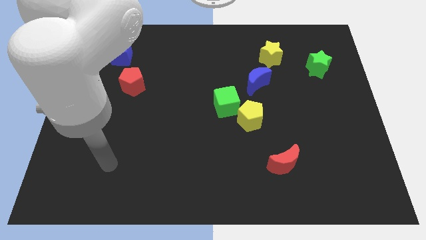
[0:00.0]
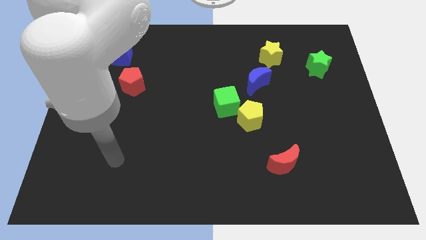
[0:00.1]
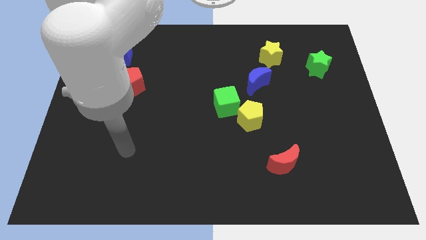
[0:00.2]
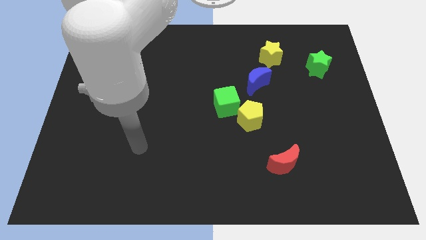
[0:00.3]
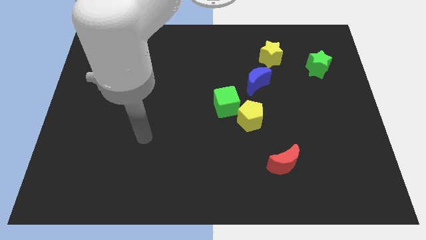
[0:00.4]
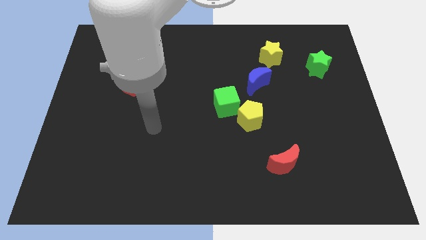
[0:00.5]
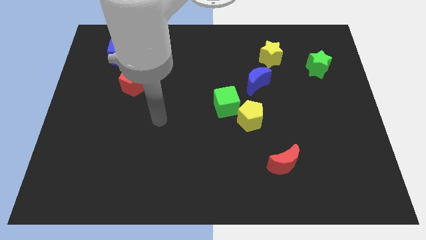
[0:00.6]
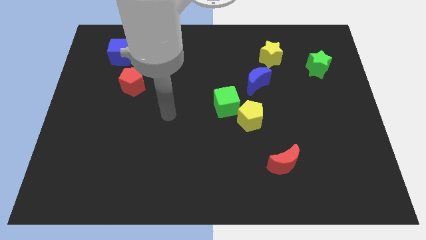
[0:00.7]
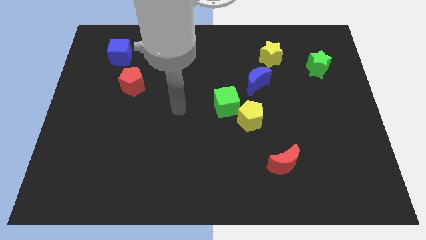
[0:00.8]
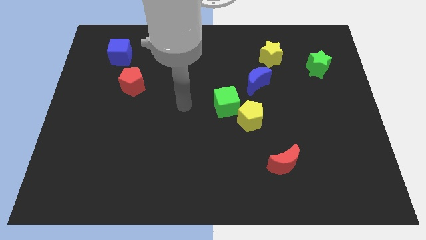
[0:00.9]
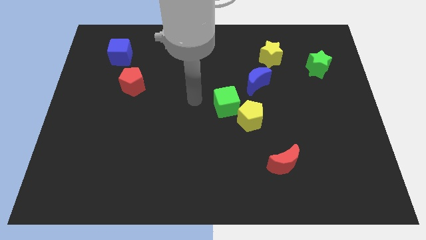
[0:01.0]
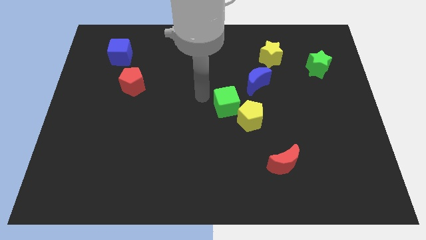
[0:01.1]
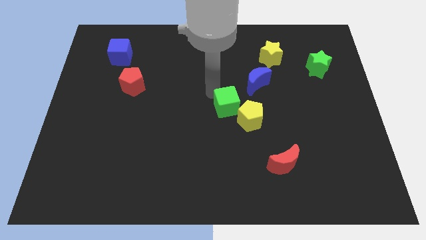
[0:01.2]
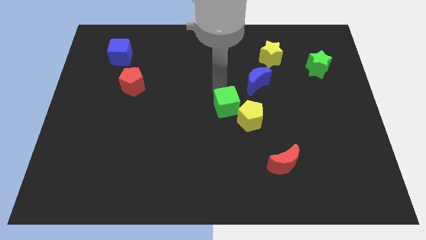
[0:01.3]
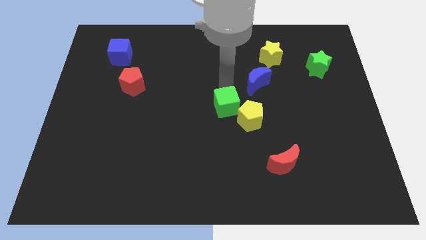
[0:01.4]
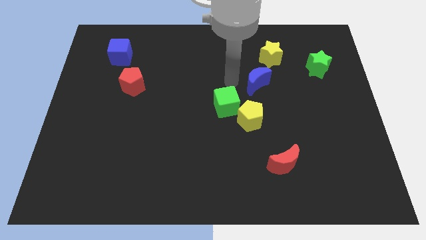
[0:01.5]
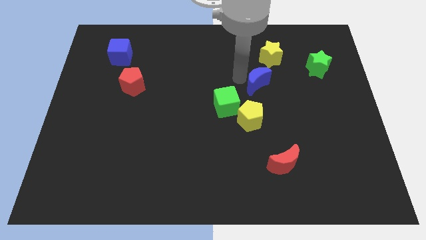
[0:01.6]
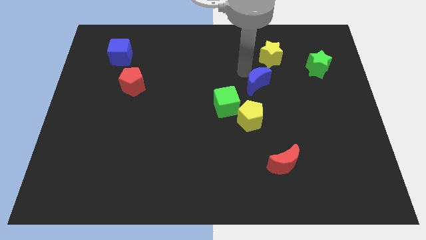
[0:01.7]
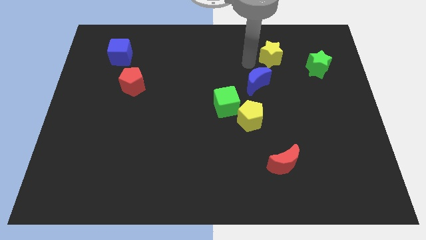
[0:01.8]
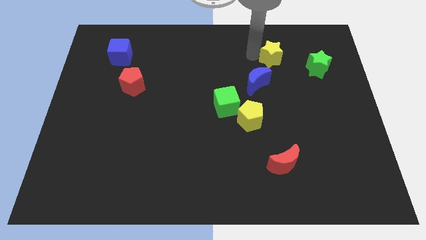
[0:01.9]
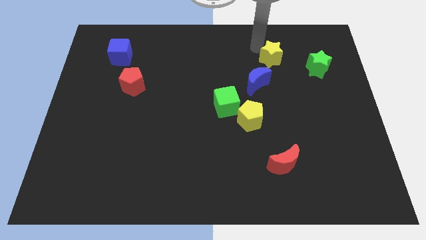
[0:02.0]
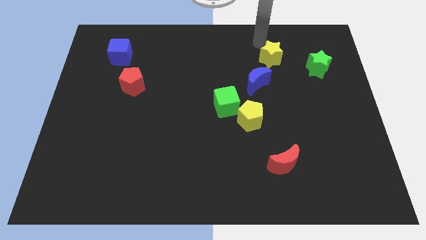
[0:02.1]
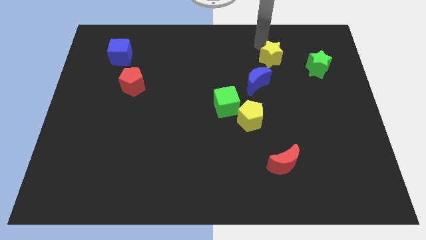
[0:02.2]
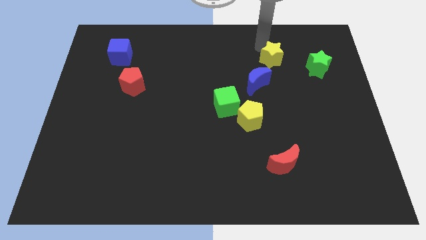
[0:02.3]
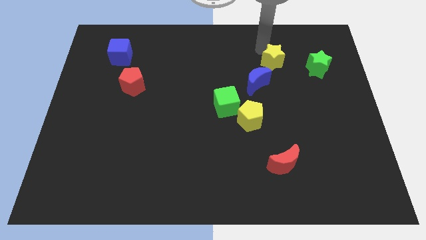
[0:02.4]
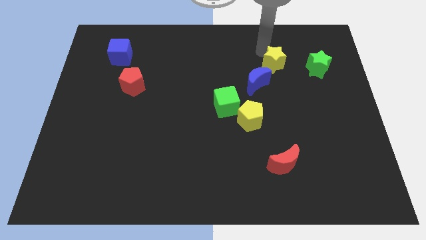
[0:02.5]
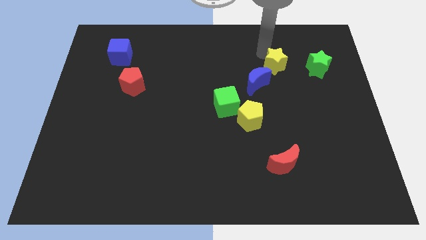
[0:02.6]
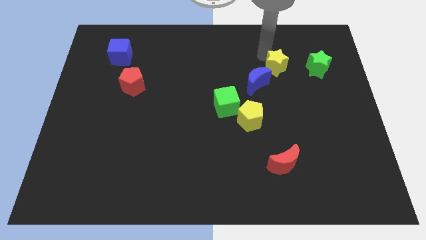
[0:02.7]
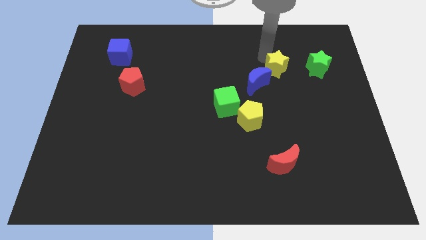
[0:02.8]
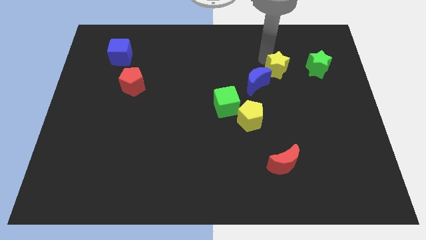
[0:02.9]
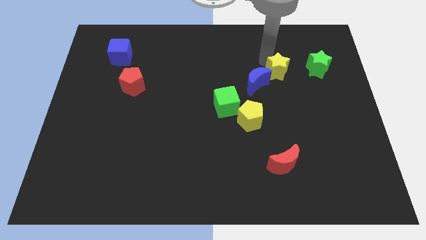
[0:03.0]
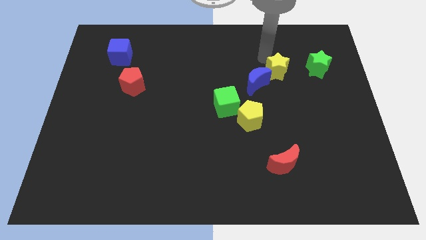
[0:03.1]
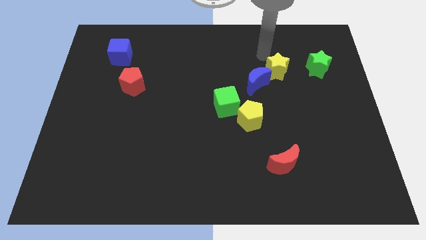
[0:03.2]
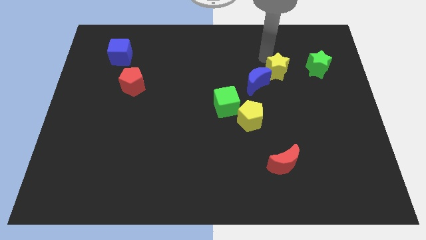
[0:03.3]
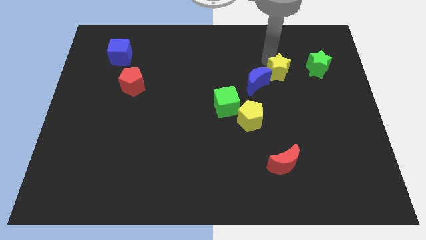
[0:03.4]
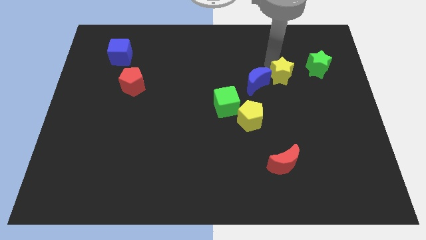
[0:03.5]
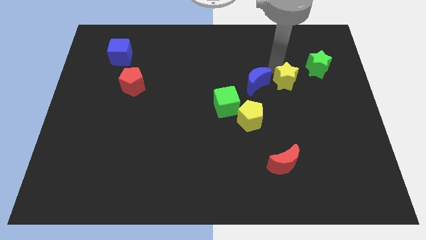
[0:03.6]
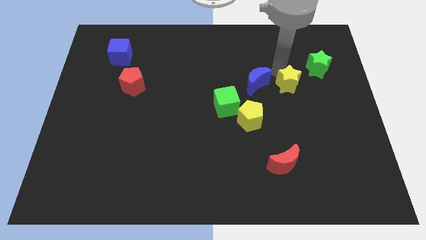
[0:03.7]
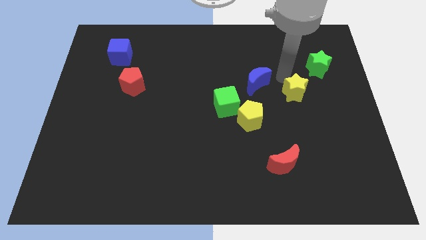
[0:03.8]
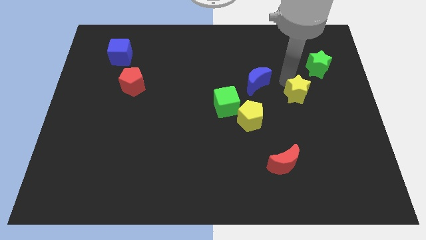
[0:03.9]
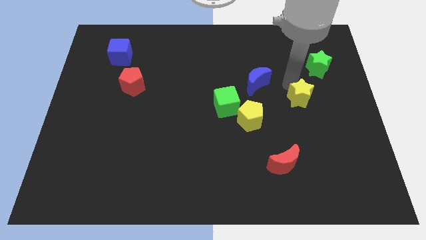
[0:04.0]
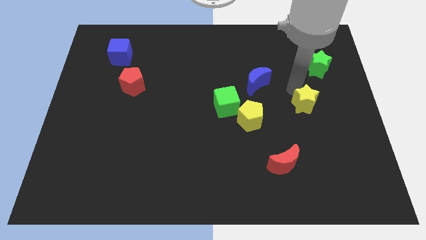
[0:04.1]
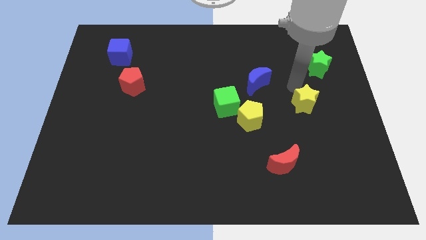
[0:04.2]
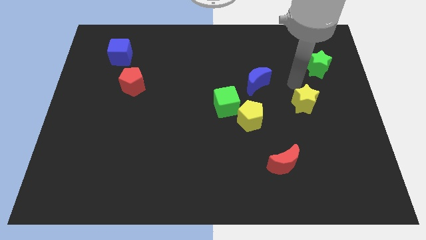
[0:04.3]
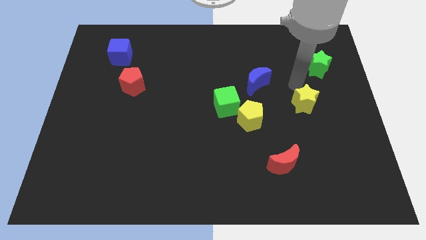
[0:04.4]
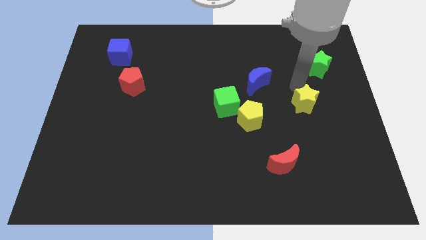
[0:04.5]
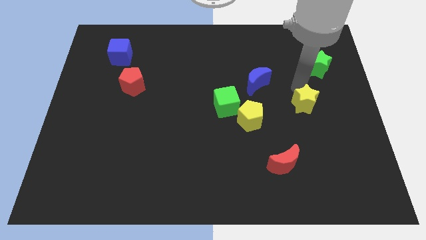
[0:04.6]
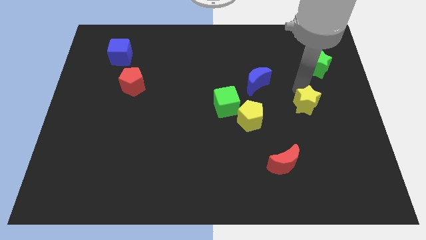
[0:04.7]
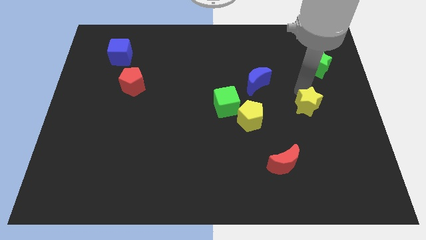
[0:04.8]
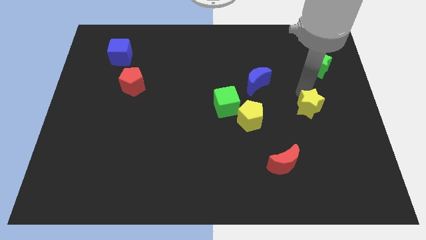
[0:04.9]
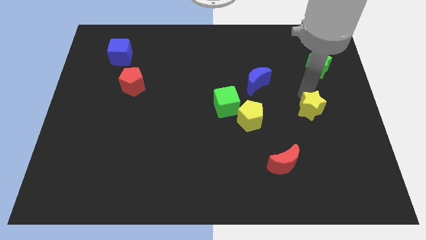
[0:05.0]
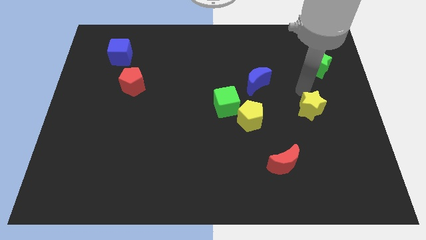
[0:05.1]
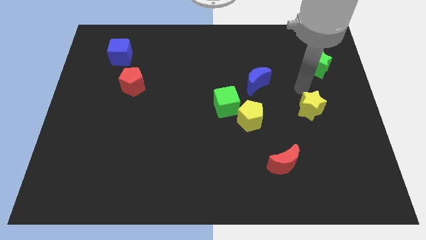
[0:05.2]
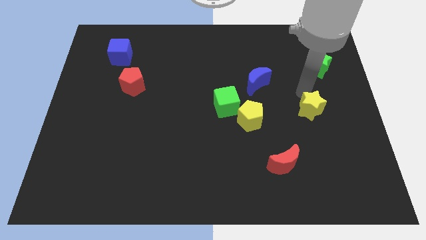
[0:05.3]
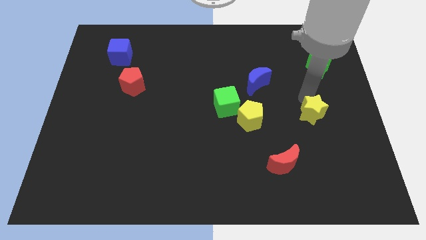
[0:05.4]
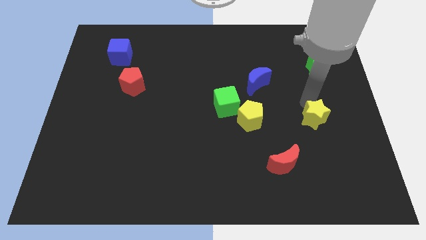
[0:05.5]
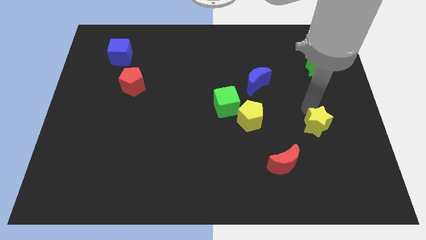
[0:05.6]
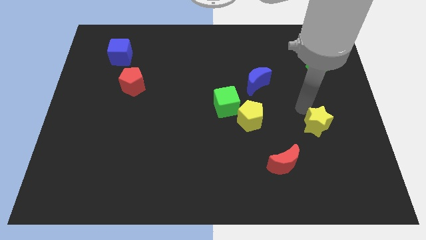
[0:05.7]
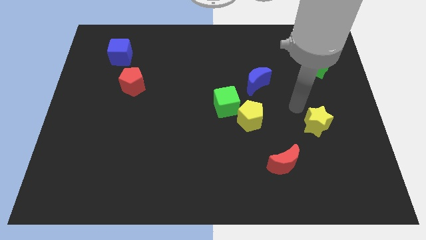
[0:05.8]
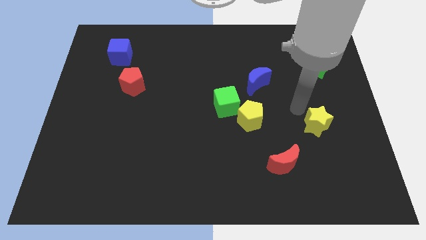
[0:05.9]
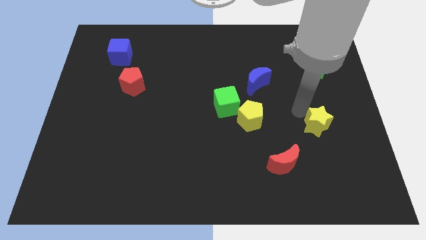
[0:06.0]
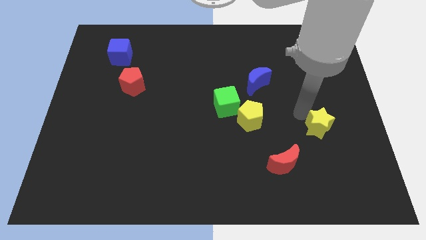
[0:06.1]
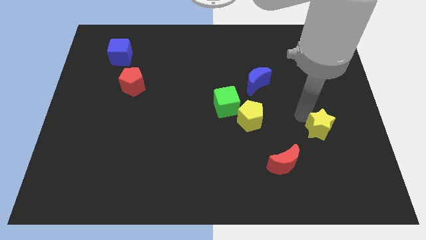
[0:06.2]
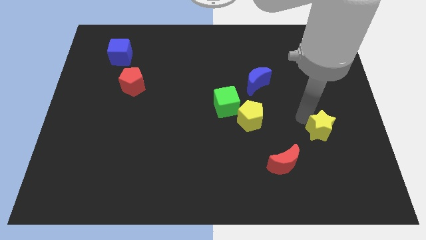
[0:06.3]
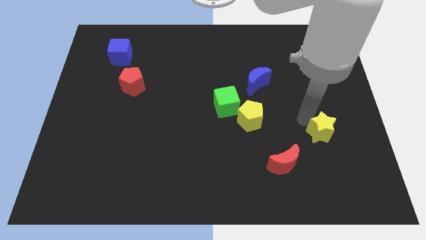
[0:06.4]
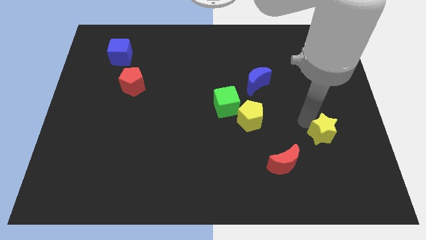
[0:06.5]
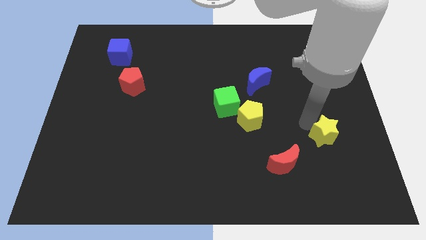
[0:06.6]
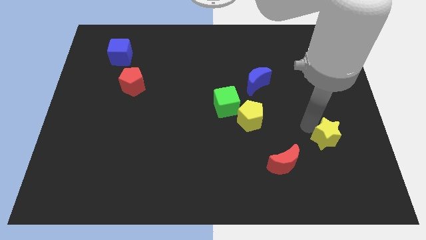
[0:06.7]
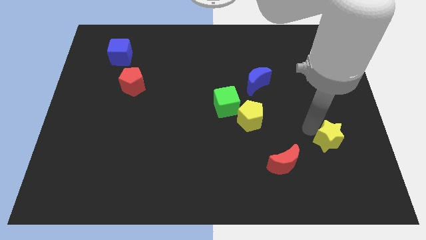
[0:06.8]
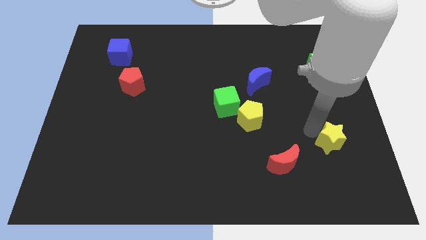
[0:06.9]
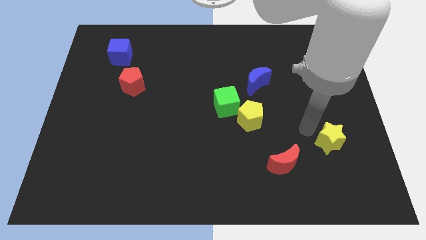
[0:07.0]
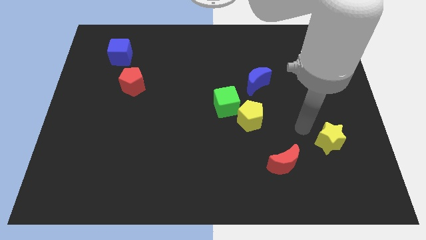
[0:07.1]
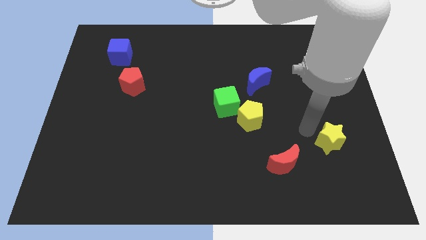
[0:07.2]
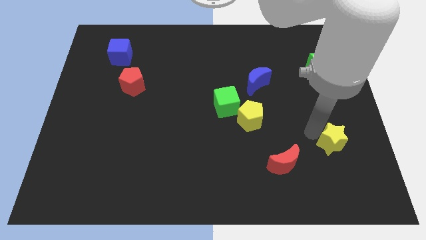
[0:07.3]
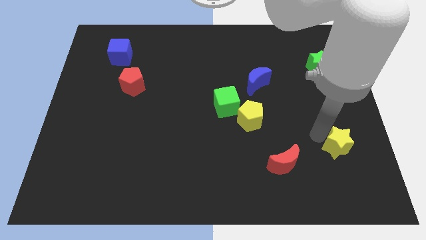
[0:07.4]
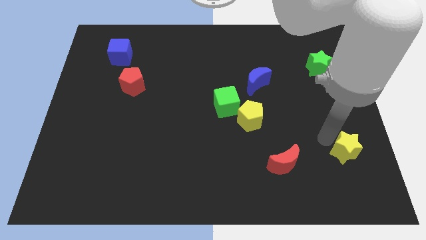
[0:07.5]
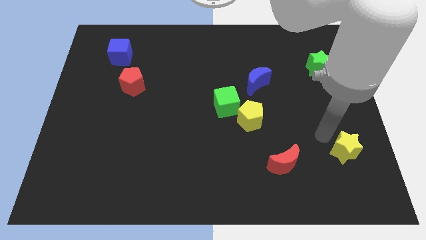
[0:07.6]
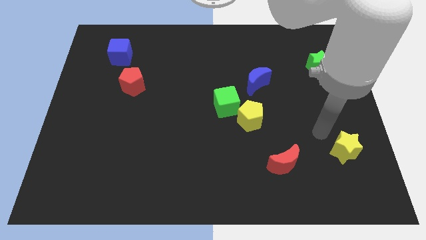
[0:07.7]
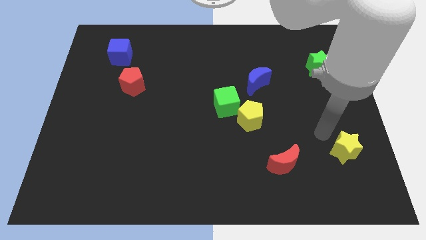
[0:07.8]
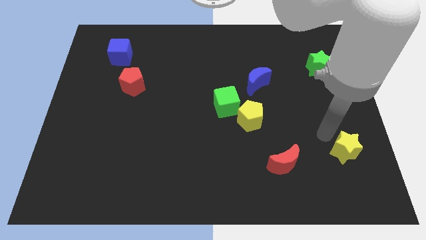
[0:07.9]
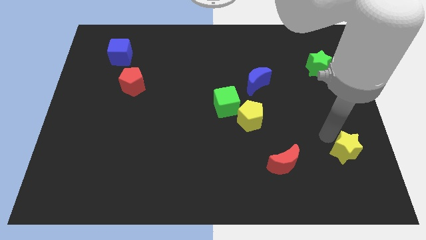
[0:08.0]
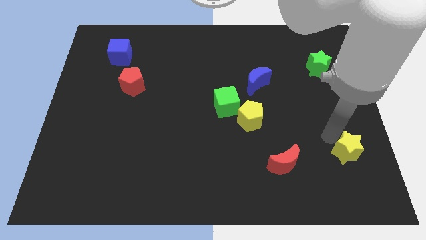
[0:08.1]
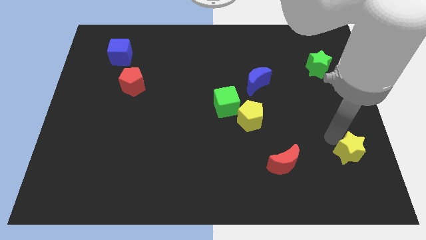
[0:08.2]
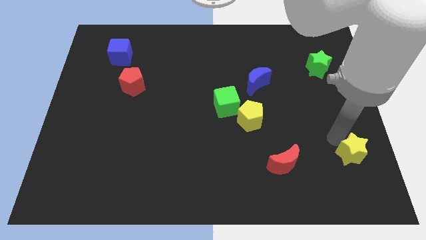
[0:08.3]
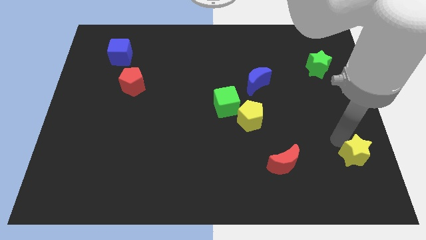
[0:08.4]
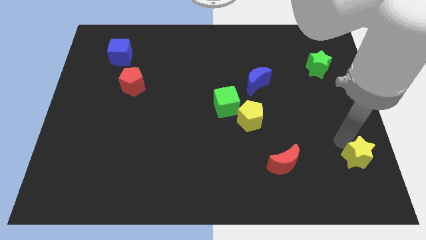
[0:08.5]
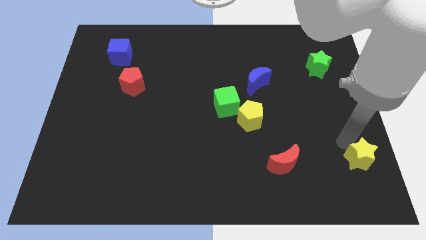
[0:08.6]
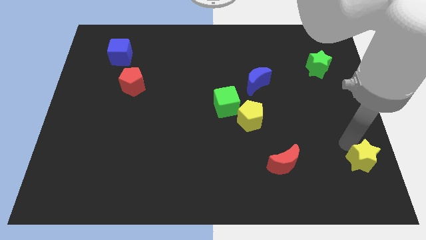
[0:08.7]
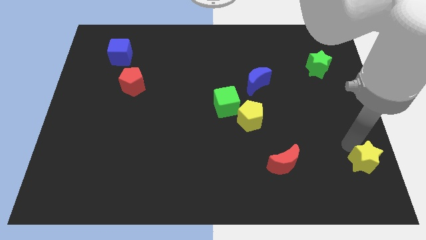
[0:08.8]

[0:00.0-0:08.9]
move the yellow star to the lower right corner
